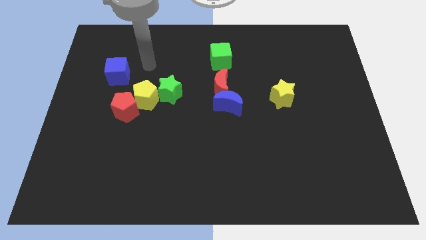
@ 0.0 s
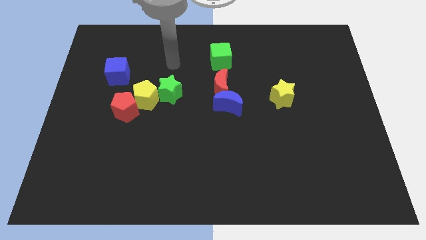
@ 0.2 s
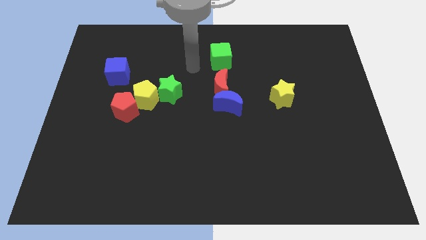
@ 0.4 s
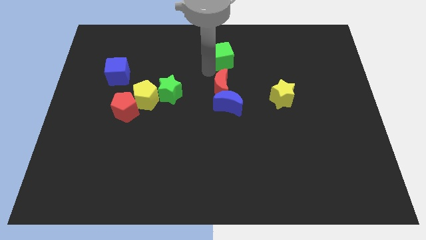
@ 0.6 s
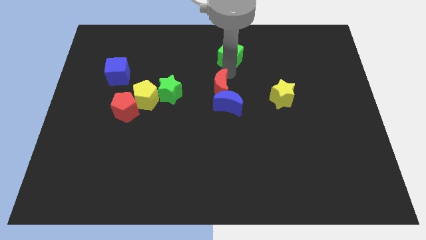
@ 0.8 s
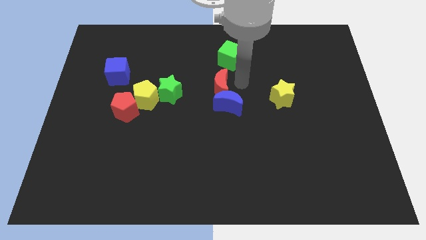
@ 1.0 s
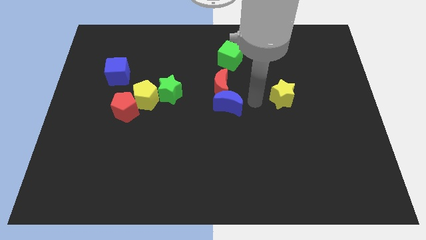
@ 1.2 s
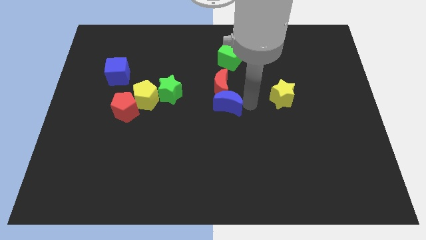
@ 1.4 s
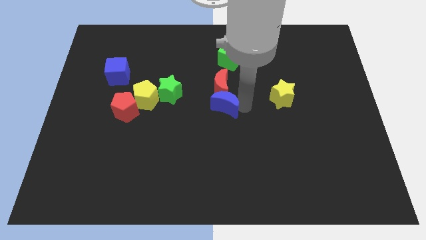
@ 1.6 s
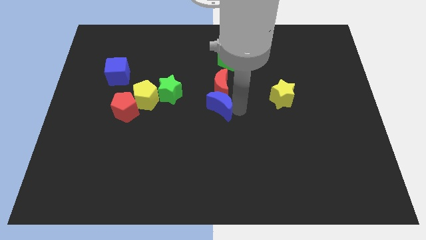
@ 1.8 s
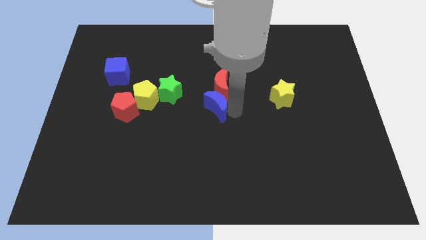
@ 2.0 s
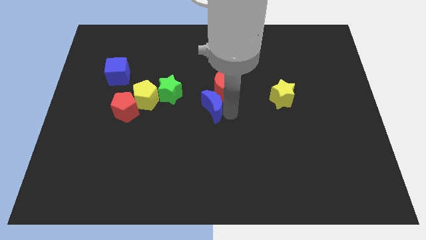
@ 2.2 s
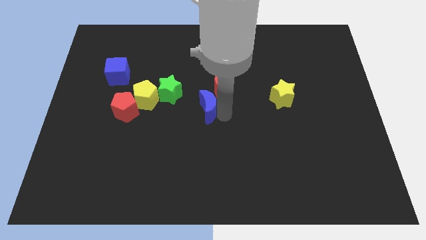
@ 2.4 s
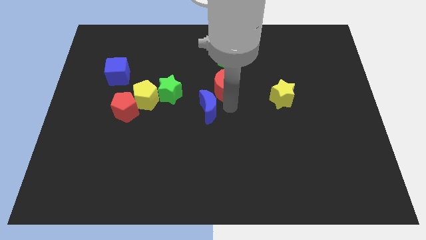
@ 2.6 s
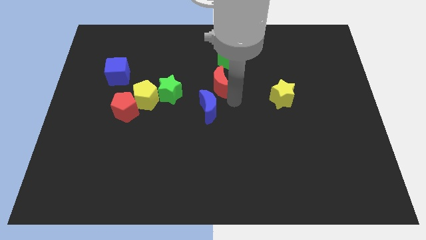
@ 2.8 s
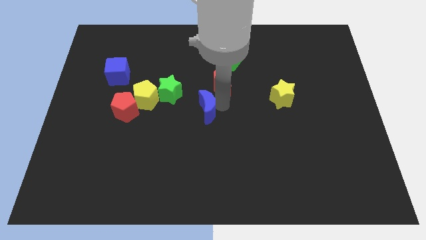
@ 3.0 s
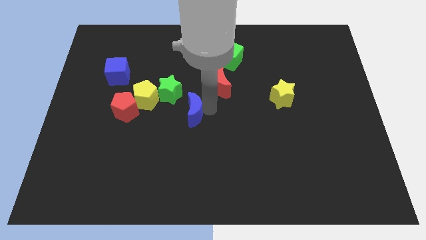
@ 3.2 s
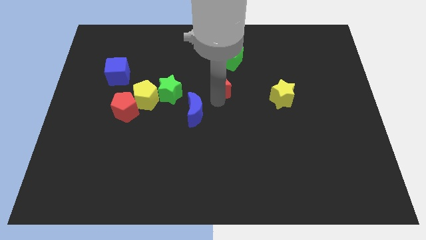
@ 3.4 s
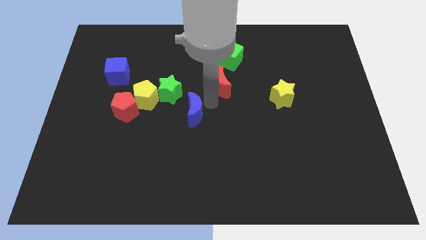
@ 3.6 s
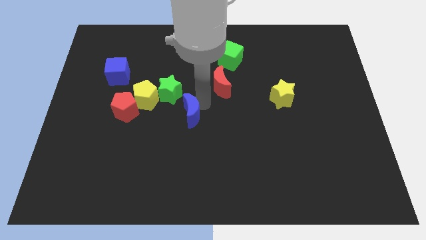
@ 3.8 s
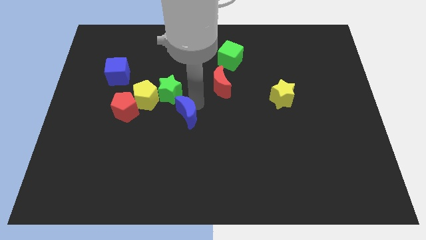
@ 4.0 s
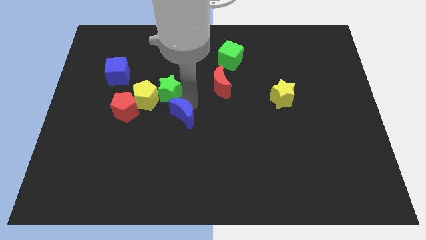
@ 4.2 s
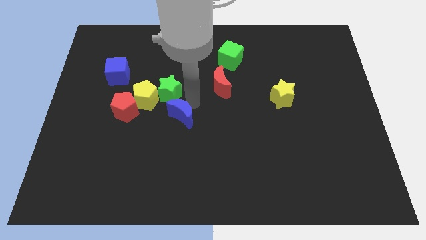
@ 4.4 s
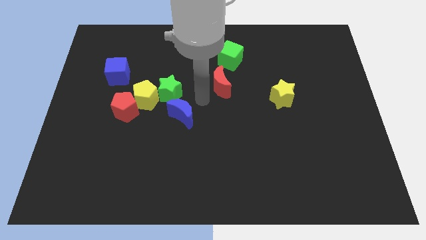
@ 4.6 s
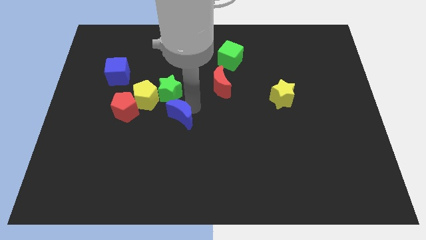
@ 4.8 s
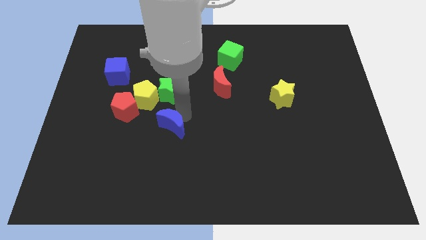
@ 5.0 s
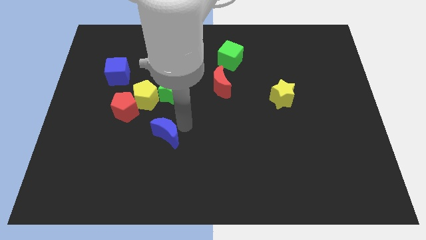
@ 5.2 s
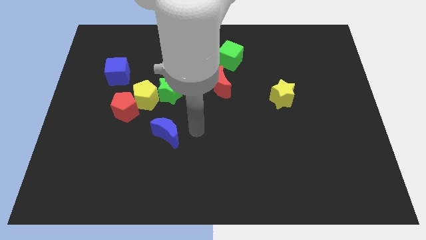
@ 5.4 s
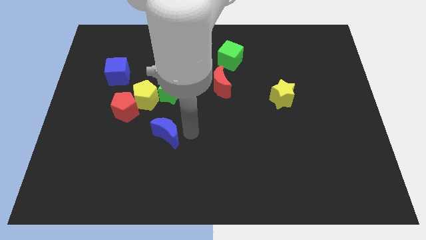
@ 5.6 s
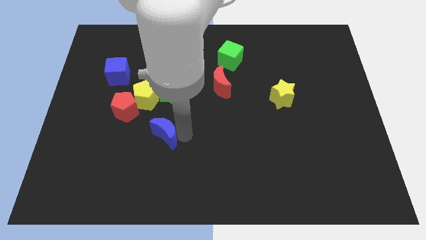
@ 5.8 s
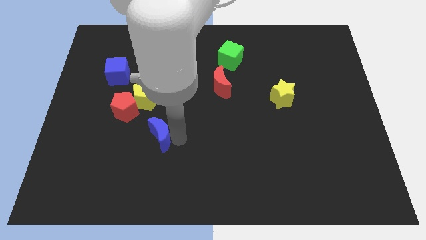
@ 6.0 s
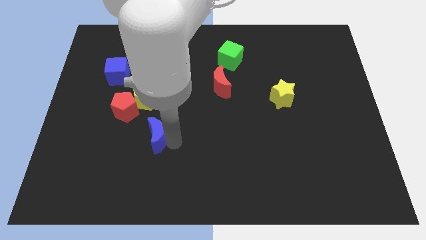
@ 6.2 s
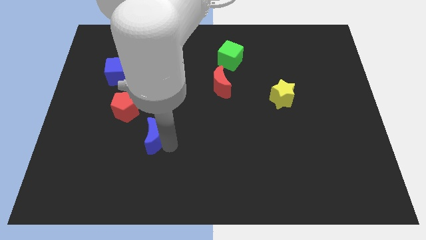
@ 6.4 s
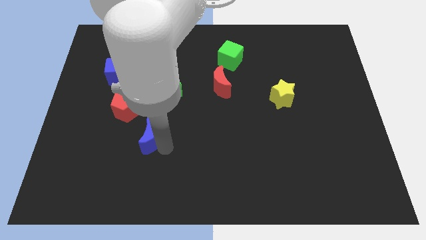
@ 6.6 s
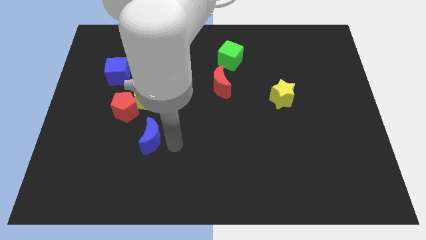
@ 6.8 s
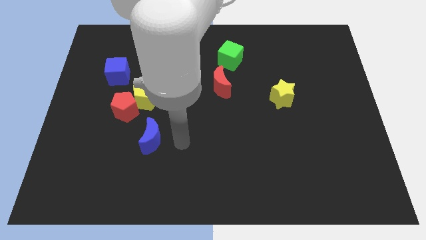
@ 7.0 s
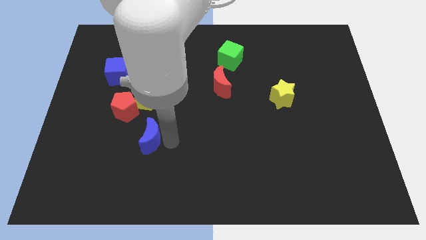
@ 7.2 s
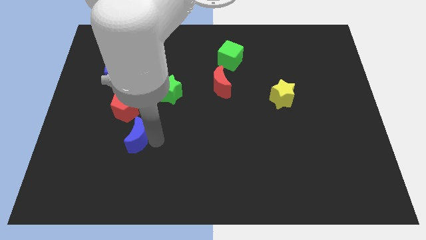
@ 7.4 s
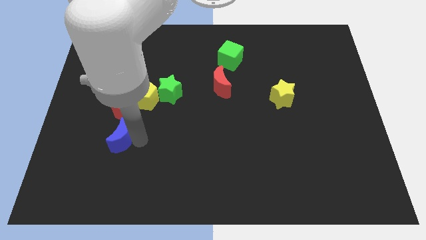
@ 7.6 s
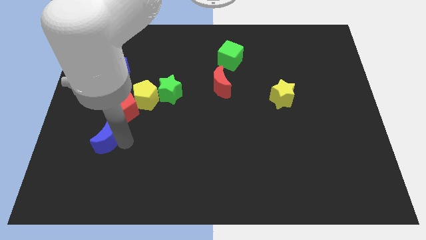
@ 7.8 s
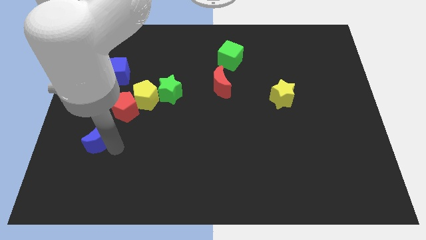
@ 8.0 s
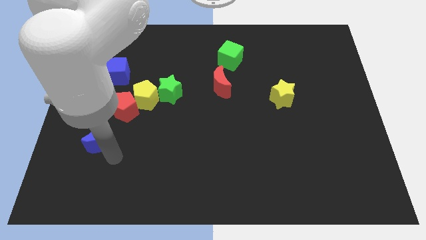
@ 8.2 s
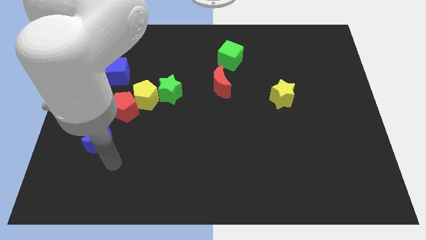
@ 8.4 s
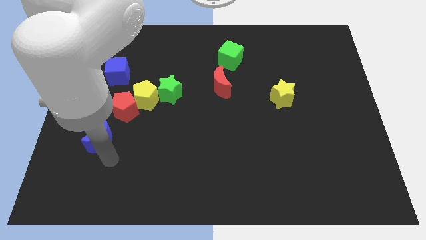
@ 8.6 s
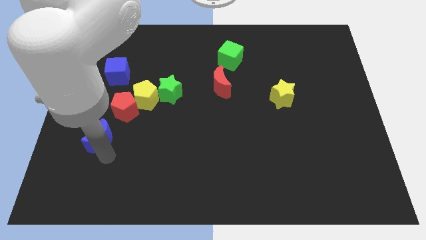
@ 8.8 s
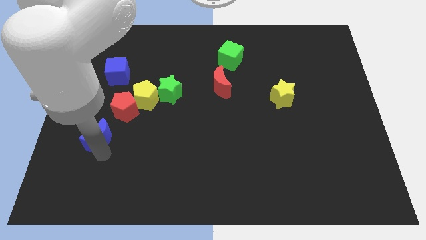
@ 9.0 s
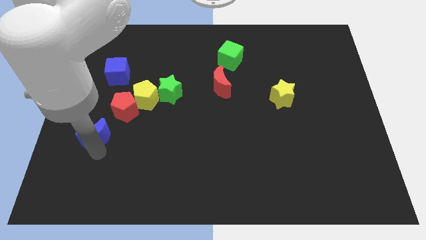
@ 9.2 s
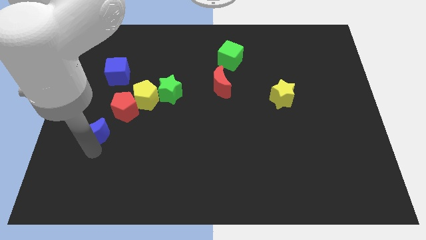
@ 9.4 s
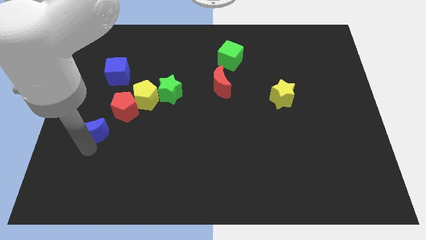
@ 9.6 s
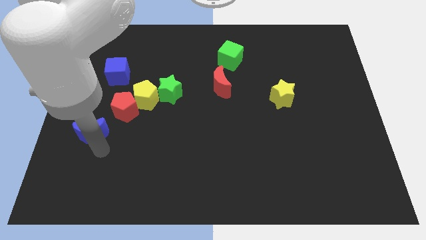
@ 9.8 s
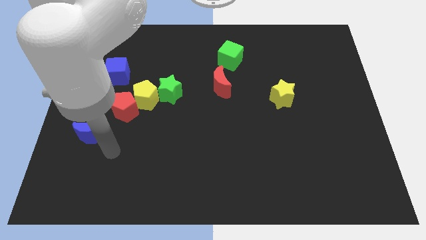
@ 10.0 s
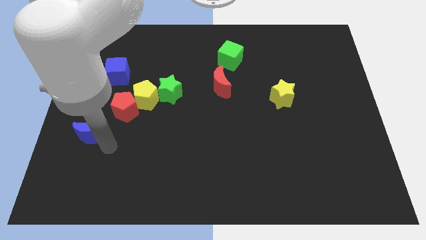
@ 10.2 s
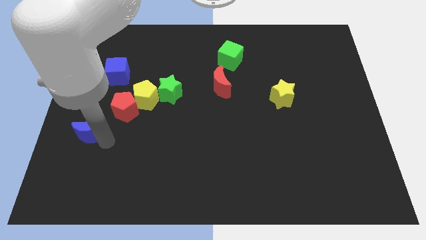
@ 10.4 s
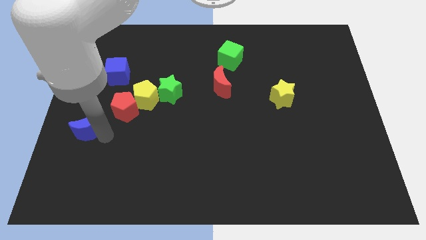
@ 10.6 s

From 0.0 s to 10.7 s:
move the blue moon to the left side of the board

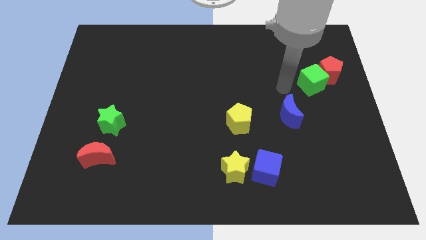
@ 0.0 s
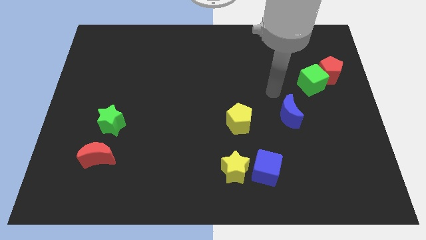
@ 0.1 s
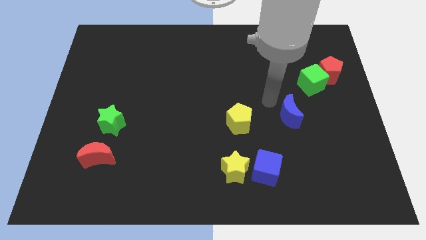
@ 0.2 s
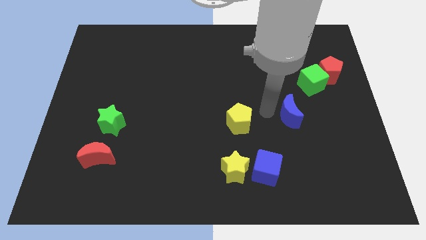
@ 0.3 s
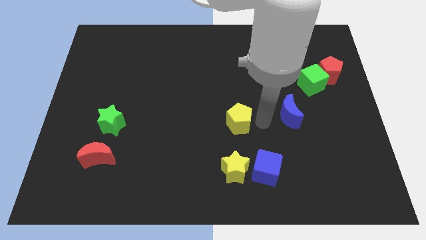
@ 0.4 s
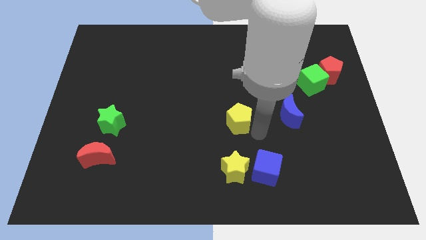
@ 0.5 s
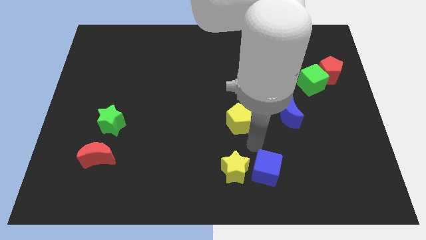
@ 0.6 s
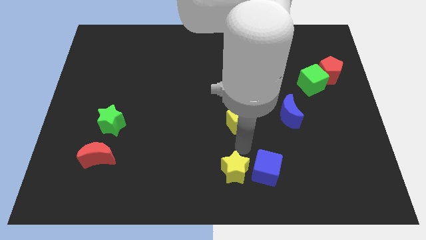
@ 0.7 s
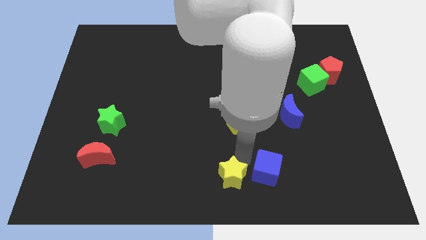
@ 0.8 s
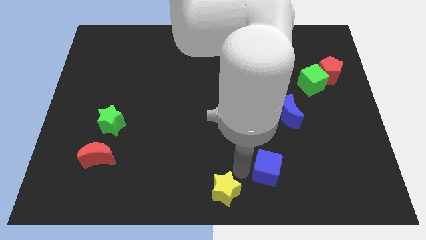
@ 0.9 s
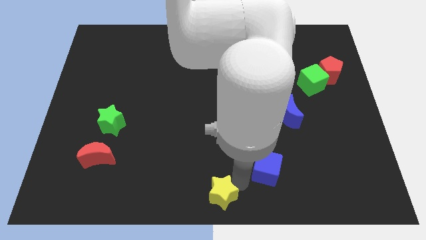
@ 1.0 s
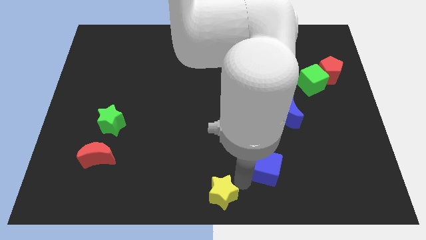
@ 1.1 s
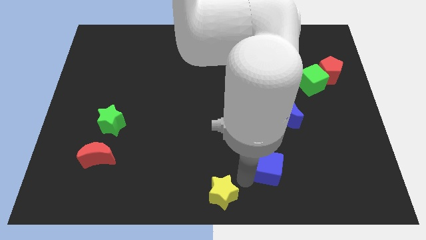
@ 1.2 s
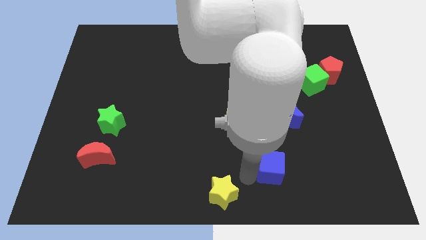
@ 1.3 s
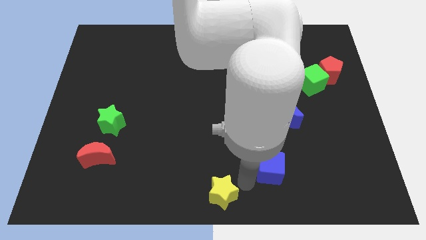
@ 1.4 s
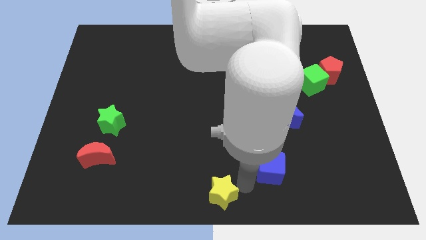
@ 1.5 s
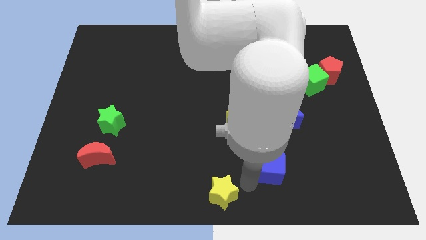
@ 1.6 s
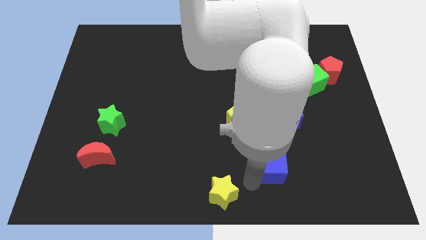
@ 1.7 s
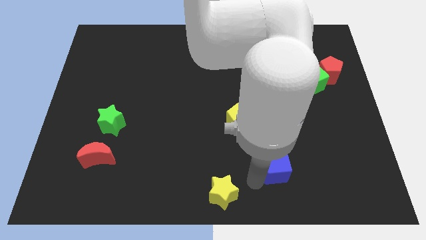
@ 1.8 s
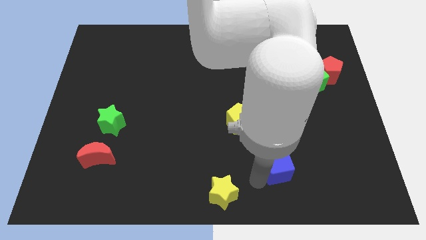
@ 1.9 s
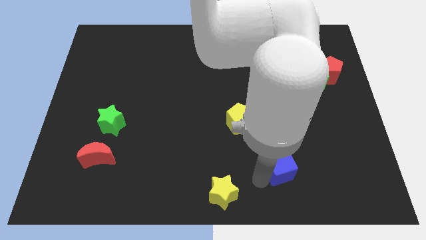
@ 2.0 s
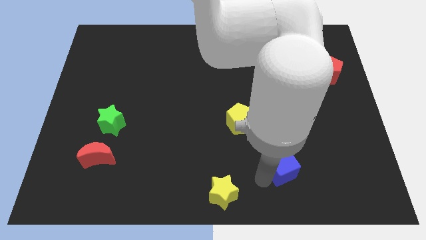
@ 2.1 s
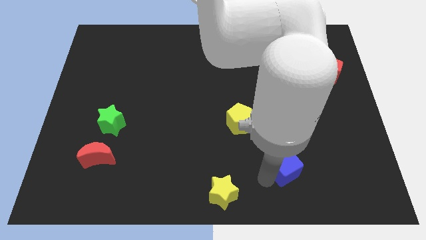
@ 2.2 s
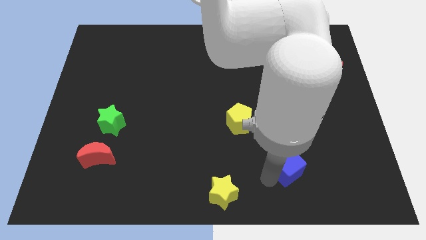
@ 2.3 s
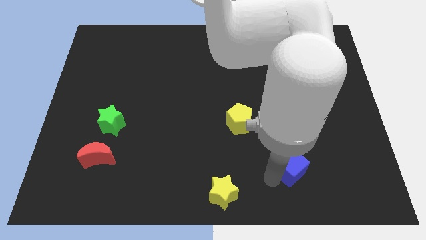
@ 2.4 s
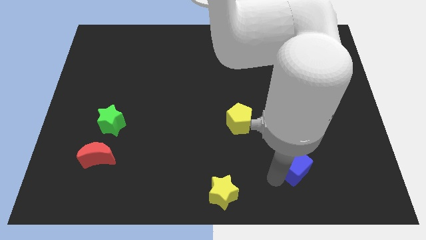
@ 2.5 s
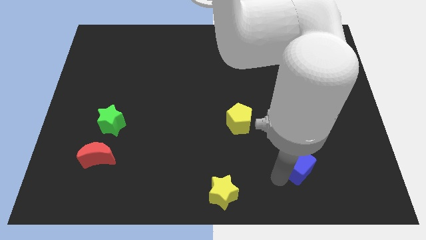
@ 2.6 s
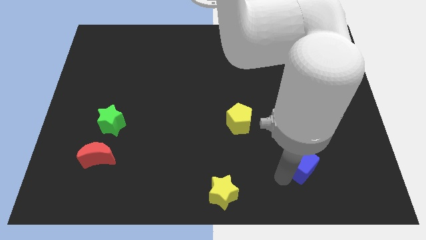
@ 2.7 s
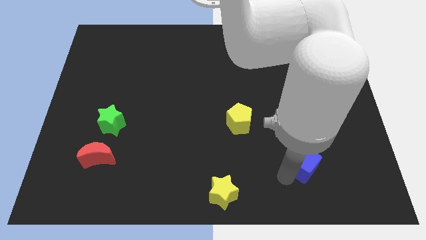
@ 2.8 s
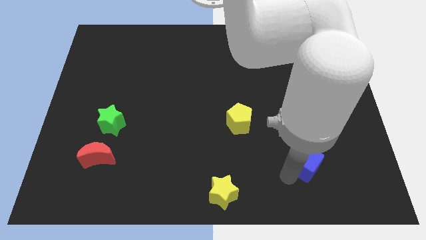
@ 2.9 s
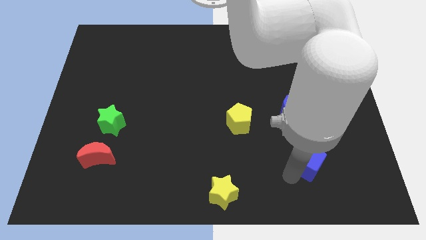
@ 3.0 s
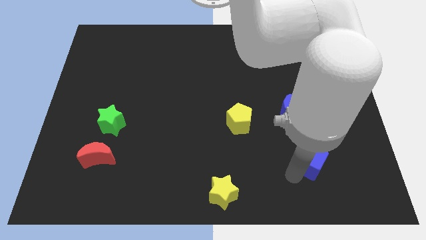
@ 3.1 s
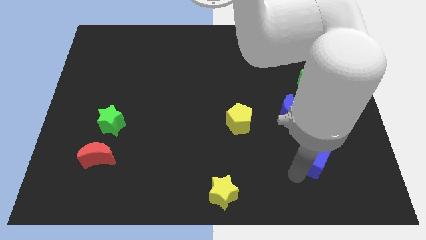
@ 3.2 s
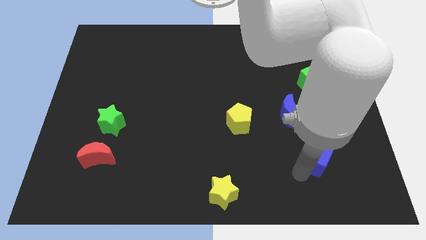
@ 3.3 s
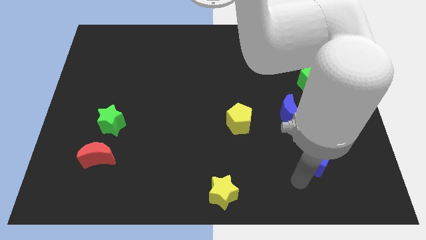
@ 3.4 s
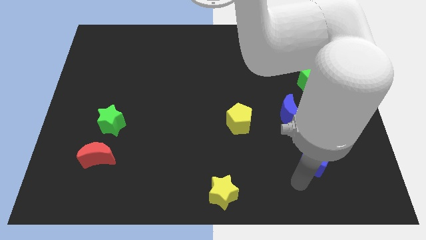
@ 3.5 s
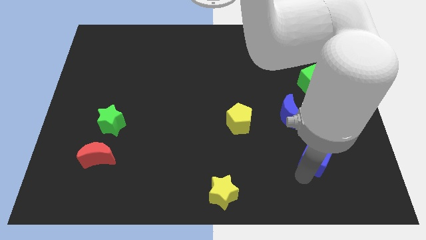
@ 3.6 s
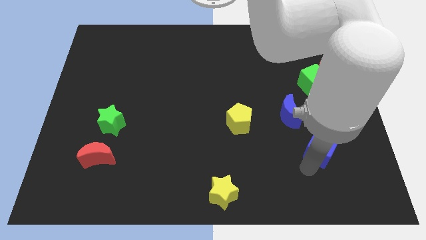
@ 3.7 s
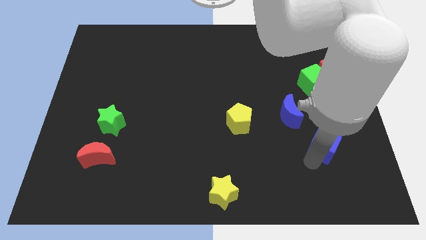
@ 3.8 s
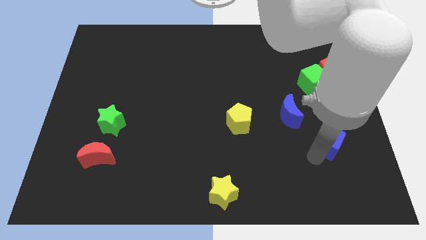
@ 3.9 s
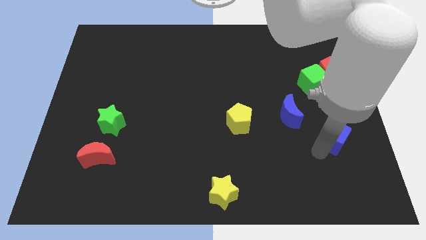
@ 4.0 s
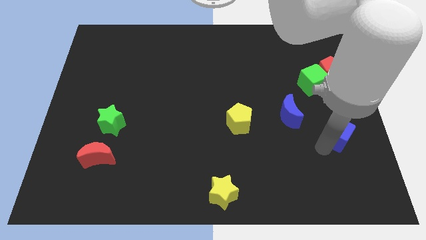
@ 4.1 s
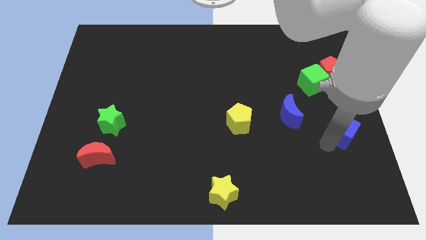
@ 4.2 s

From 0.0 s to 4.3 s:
move the blue cube to the right side of the board
